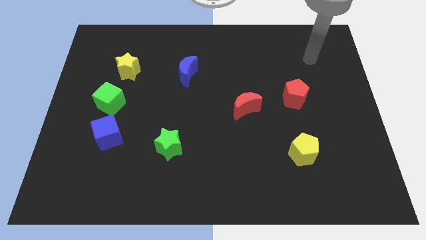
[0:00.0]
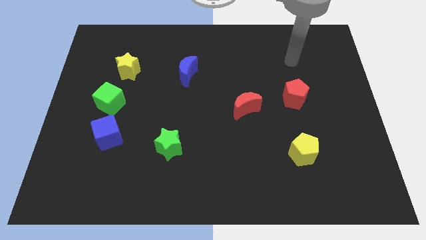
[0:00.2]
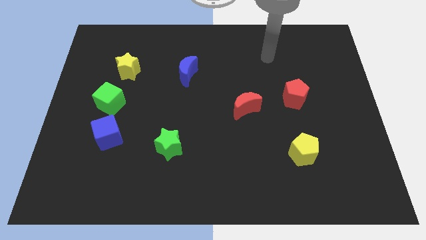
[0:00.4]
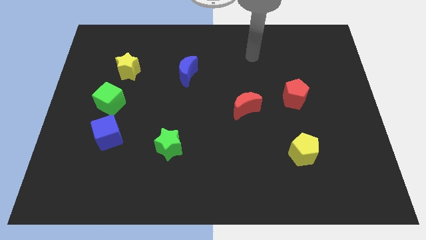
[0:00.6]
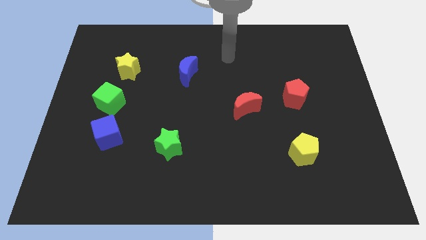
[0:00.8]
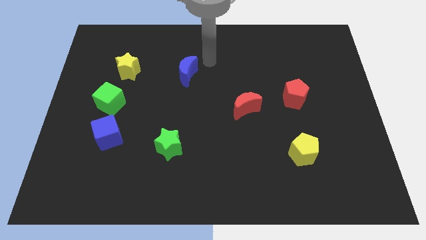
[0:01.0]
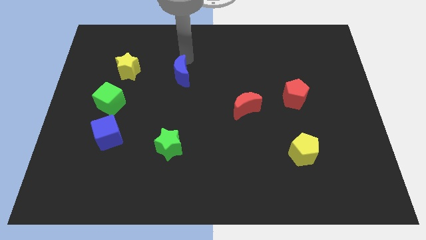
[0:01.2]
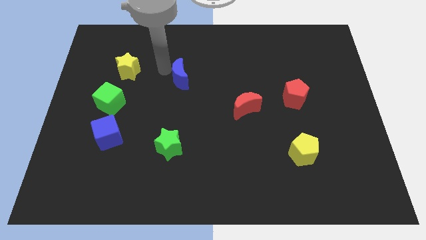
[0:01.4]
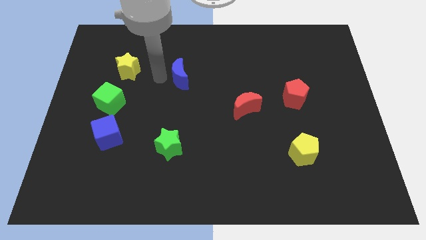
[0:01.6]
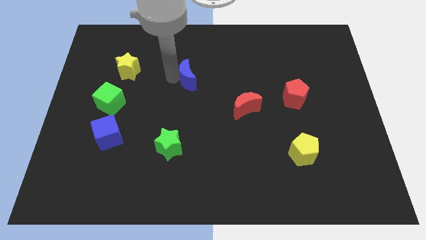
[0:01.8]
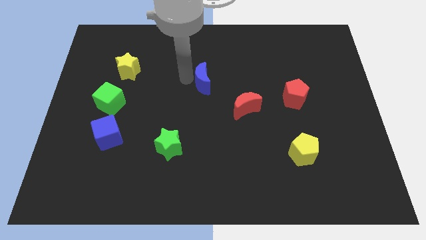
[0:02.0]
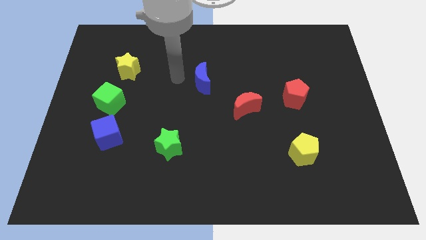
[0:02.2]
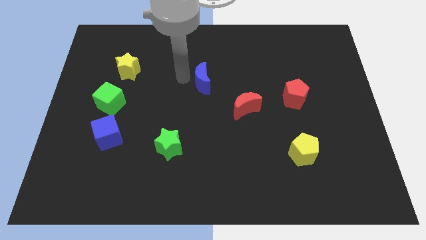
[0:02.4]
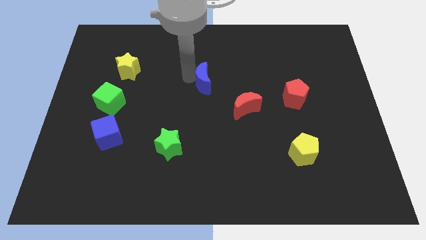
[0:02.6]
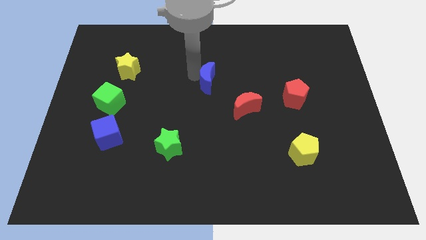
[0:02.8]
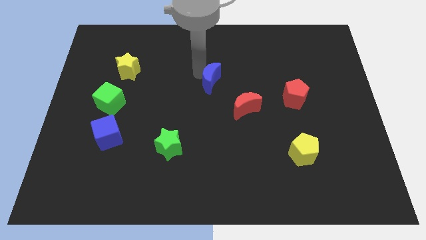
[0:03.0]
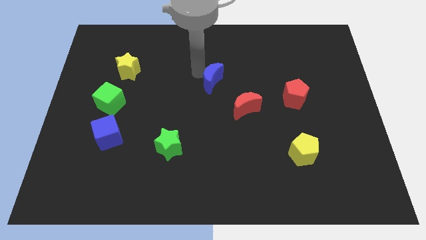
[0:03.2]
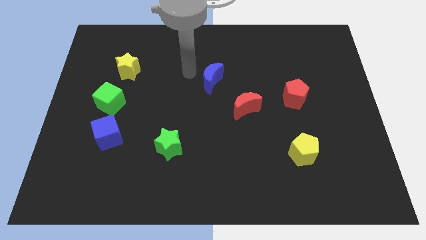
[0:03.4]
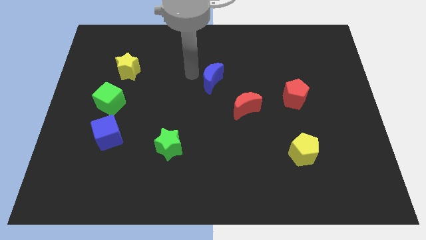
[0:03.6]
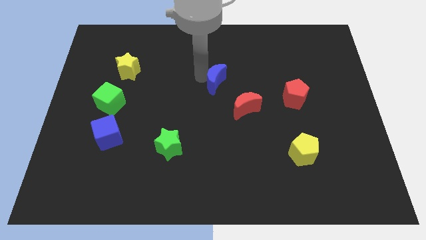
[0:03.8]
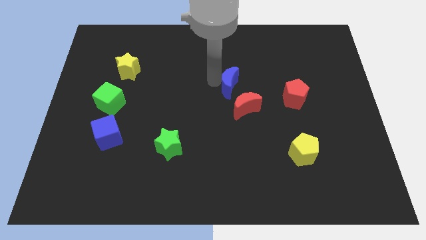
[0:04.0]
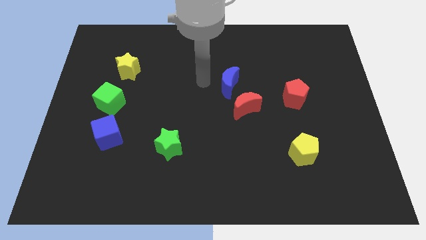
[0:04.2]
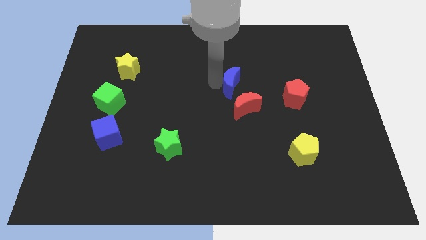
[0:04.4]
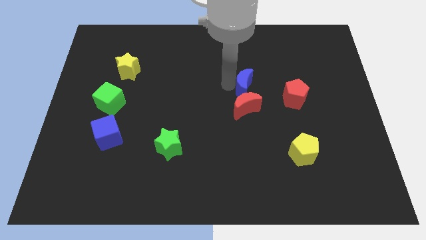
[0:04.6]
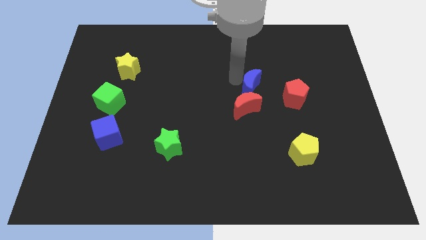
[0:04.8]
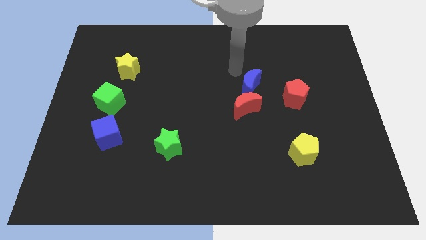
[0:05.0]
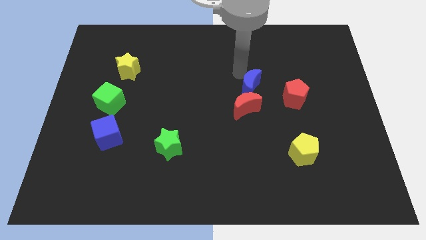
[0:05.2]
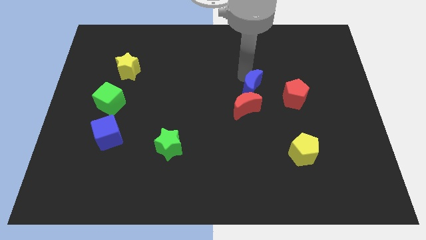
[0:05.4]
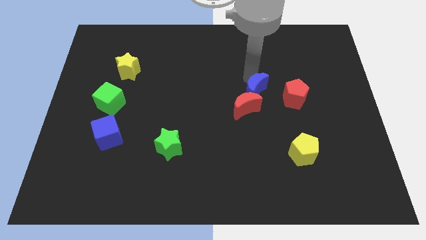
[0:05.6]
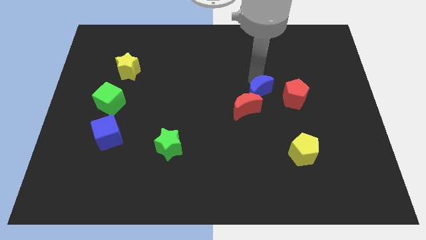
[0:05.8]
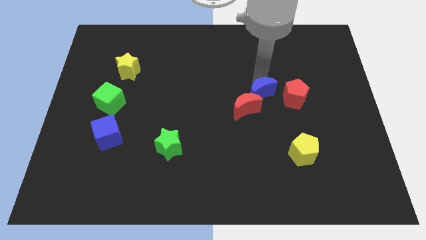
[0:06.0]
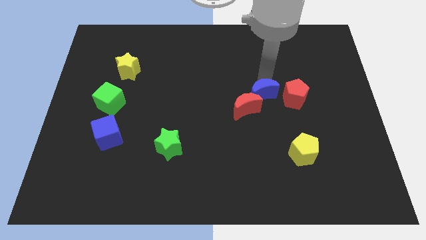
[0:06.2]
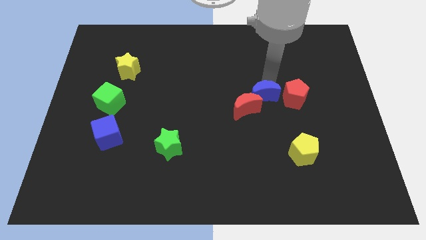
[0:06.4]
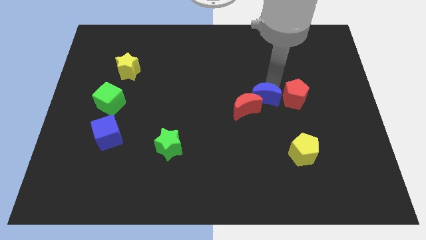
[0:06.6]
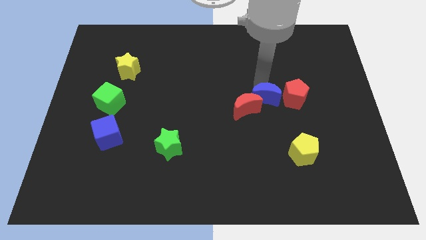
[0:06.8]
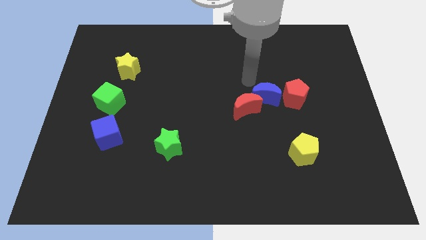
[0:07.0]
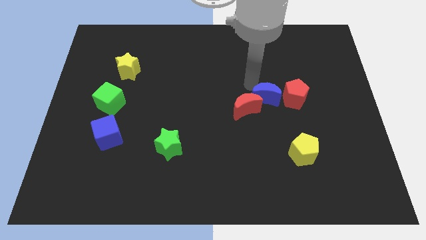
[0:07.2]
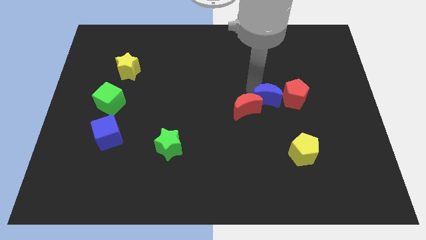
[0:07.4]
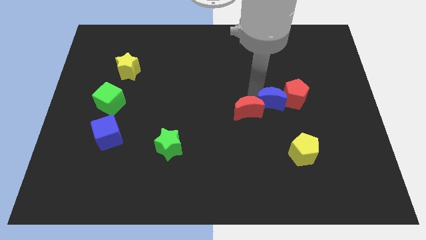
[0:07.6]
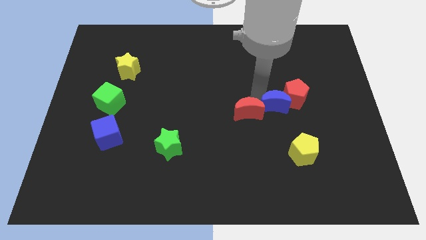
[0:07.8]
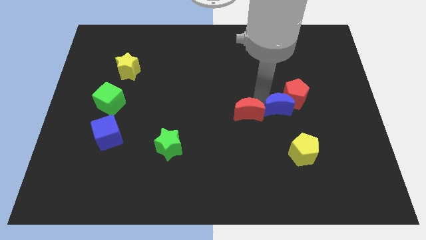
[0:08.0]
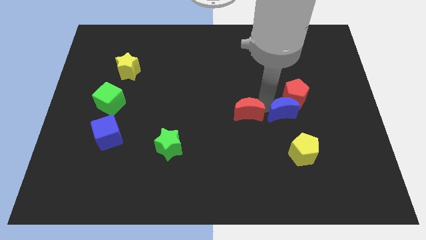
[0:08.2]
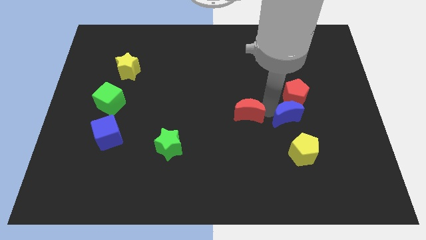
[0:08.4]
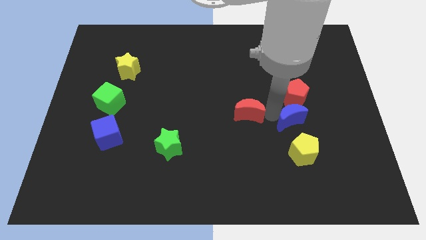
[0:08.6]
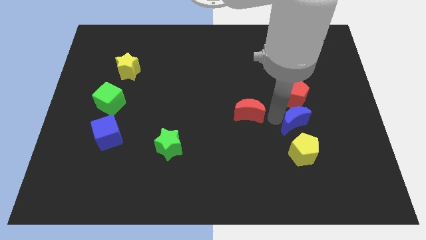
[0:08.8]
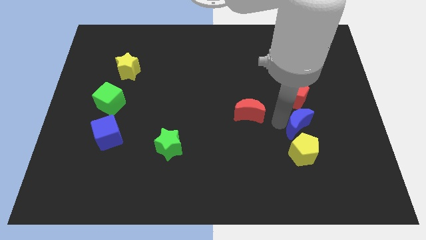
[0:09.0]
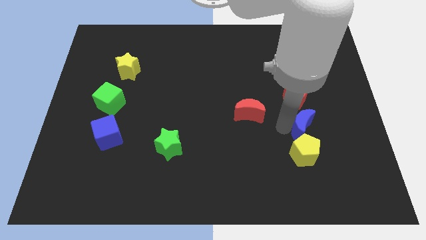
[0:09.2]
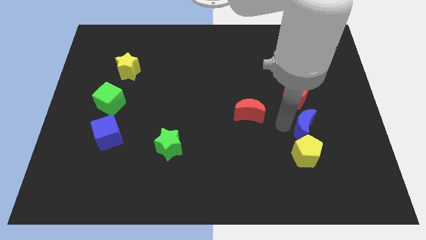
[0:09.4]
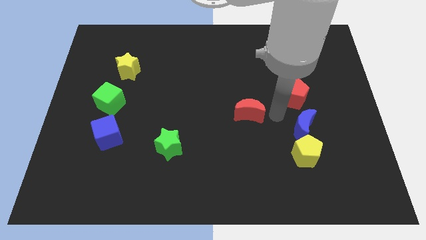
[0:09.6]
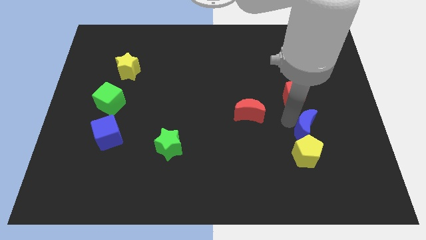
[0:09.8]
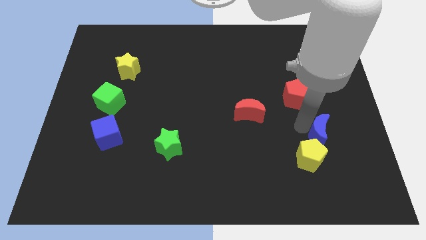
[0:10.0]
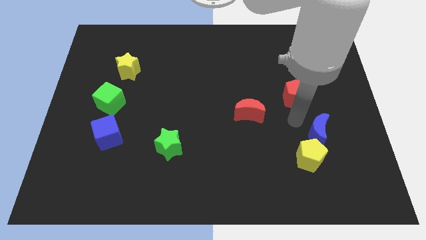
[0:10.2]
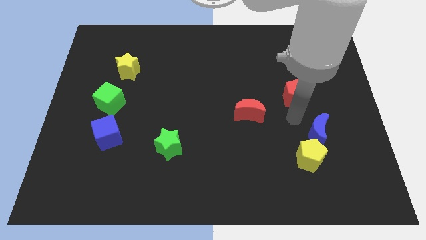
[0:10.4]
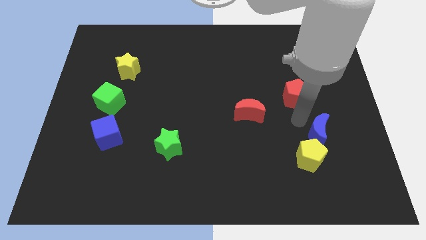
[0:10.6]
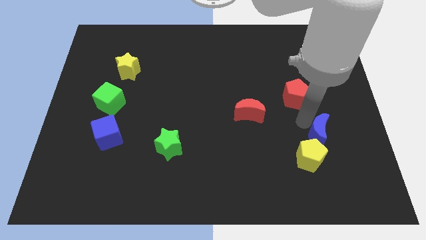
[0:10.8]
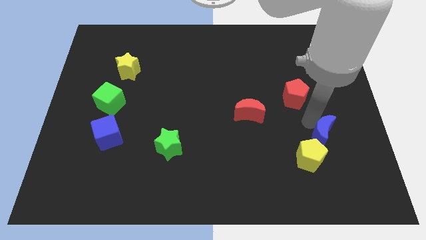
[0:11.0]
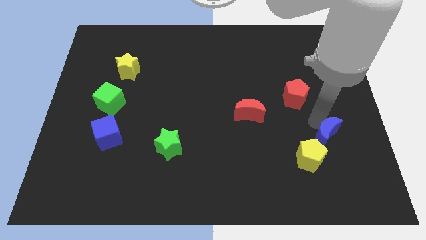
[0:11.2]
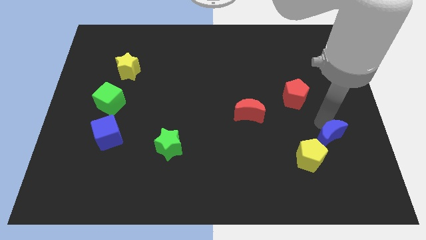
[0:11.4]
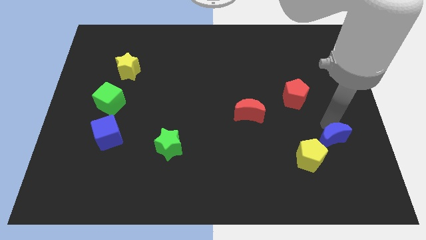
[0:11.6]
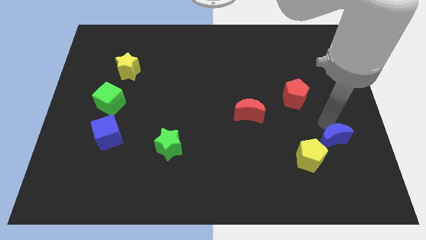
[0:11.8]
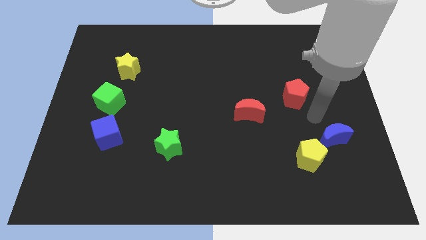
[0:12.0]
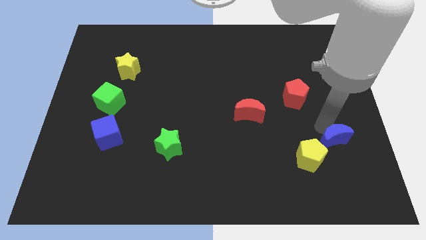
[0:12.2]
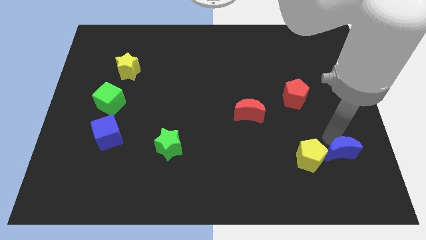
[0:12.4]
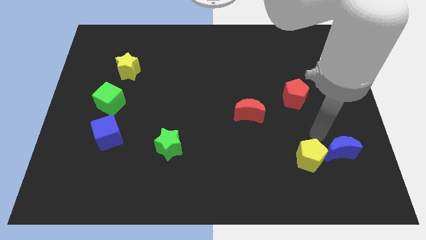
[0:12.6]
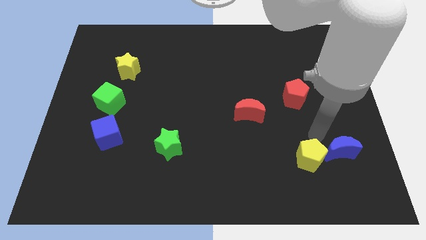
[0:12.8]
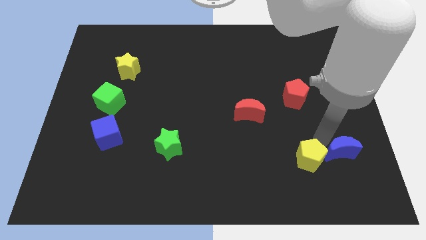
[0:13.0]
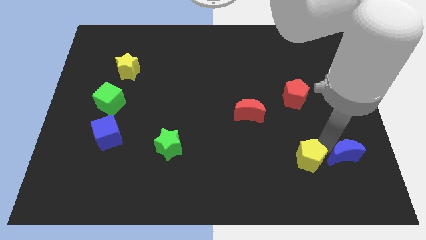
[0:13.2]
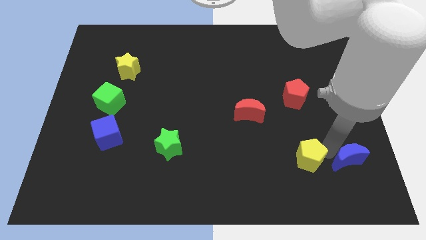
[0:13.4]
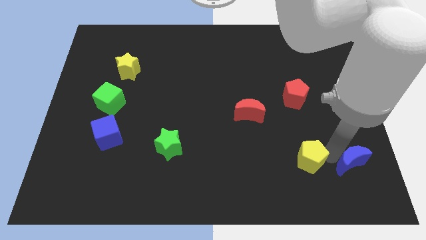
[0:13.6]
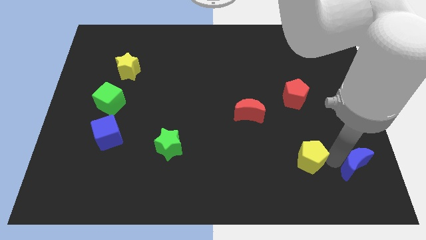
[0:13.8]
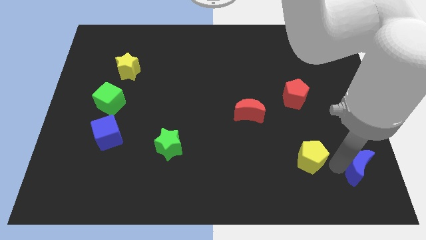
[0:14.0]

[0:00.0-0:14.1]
push the blue moon to the bottom right corner
